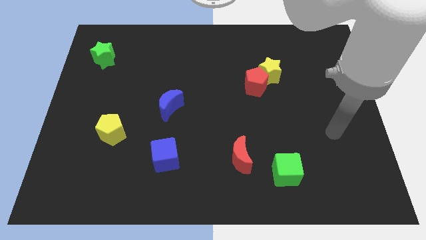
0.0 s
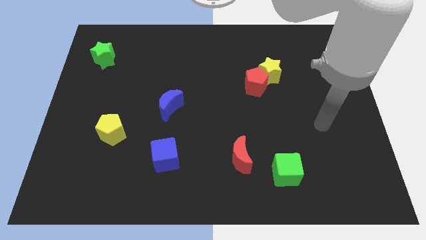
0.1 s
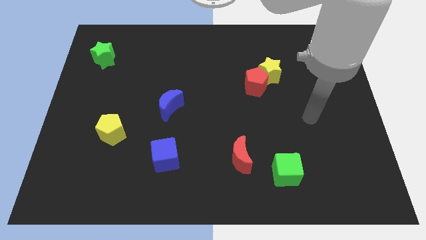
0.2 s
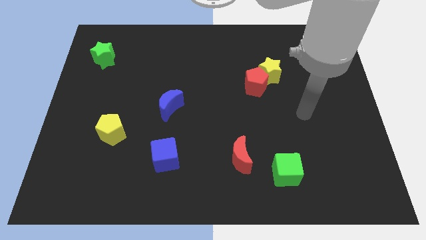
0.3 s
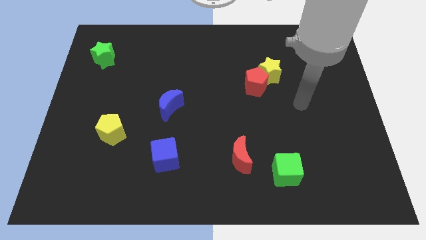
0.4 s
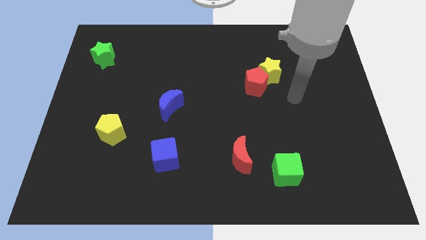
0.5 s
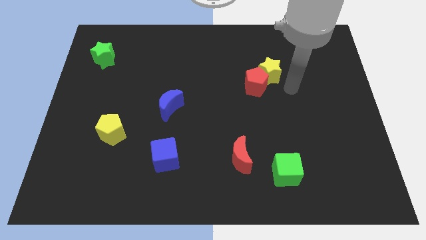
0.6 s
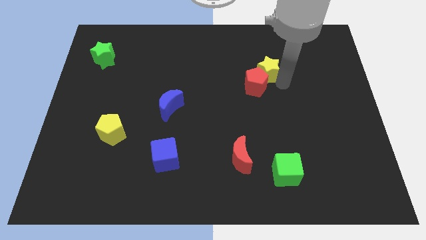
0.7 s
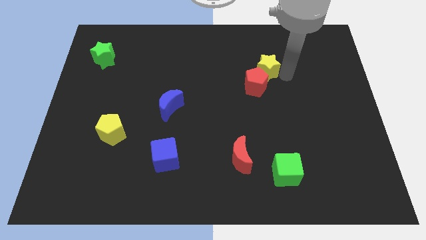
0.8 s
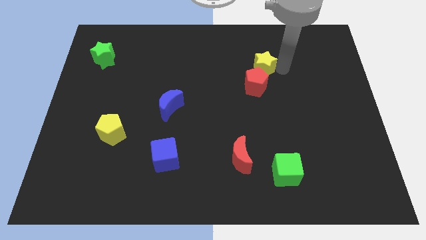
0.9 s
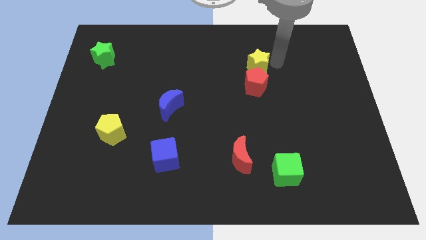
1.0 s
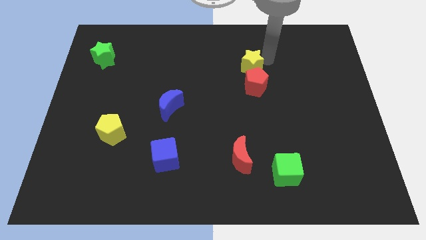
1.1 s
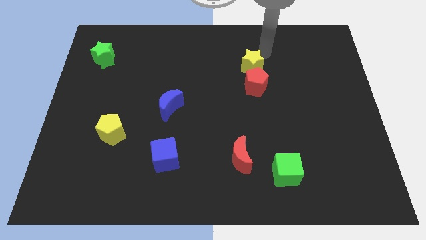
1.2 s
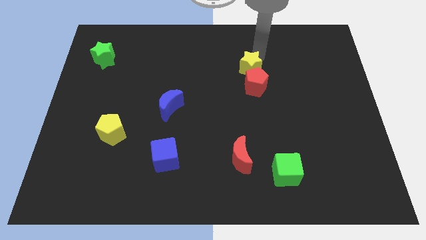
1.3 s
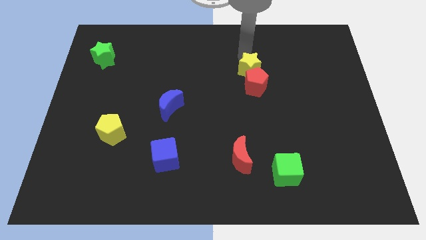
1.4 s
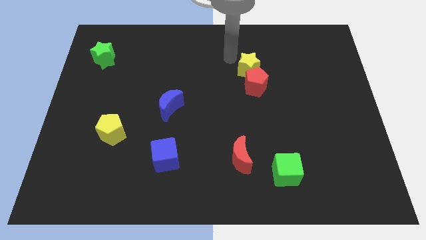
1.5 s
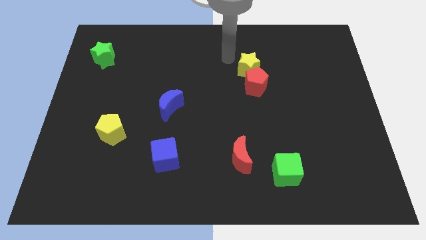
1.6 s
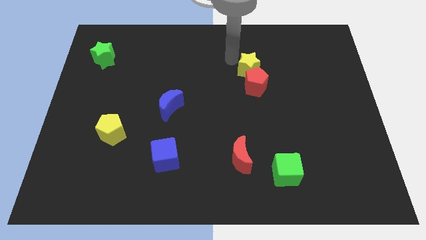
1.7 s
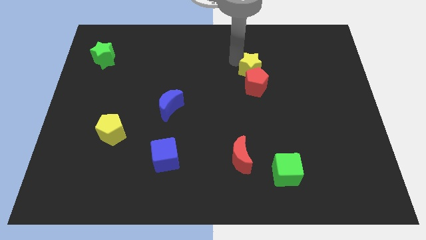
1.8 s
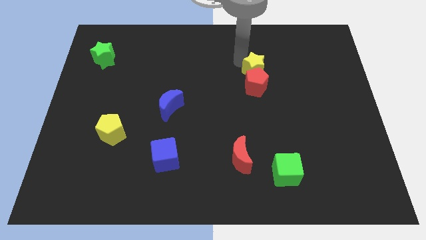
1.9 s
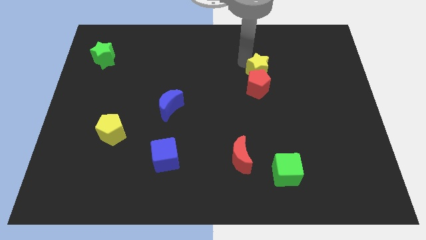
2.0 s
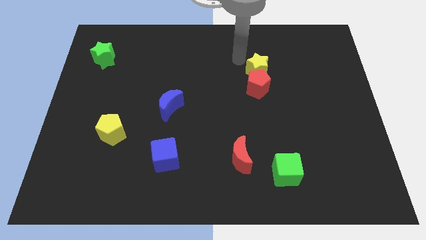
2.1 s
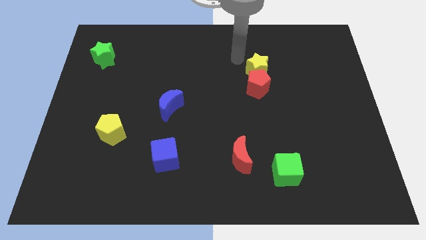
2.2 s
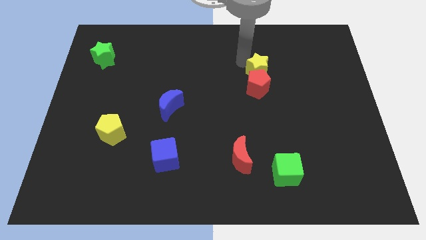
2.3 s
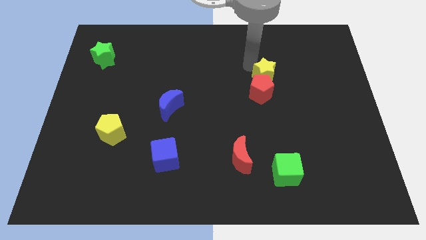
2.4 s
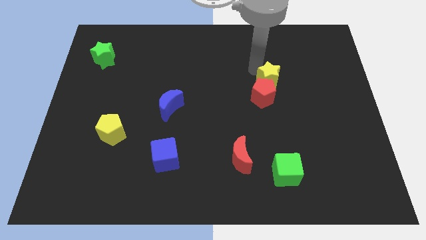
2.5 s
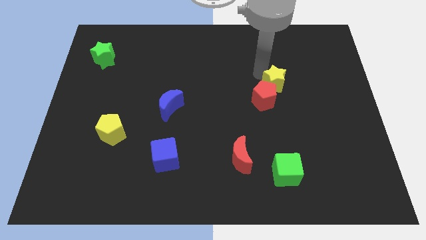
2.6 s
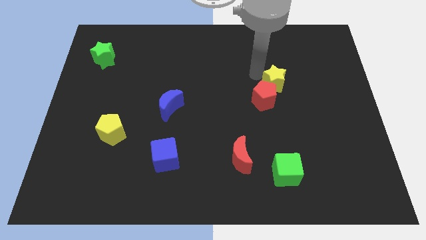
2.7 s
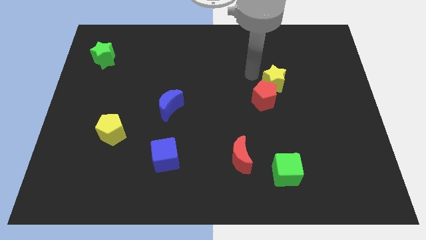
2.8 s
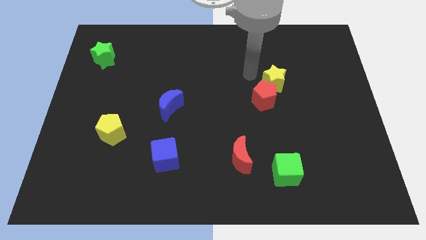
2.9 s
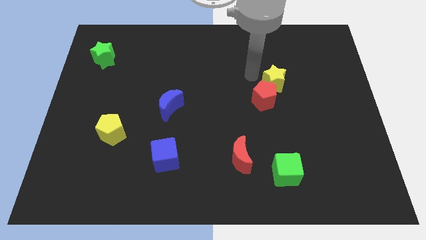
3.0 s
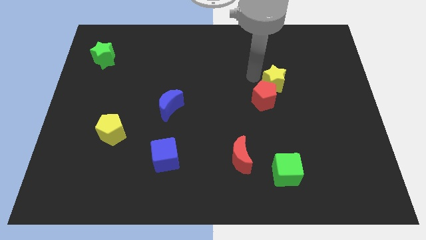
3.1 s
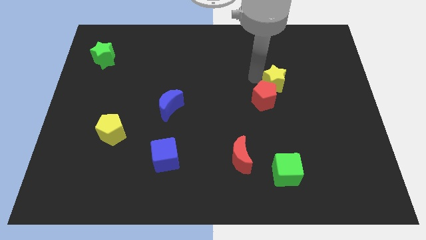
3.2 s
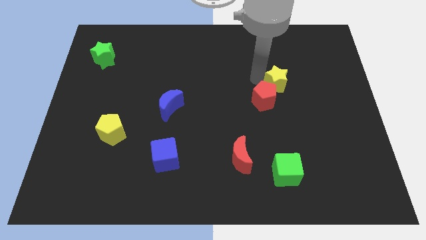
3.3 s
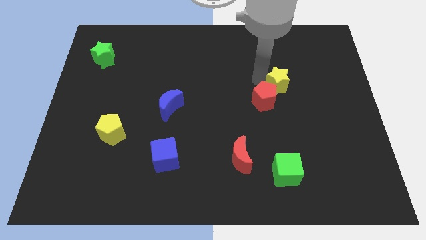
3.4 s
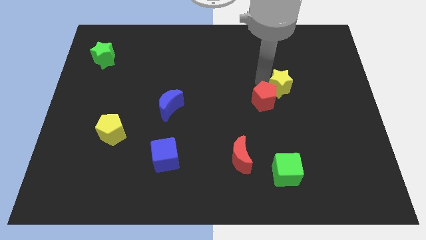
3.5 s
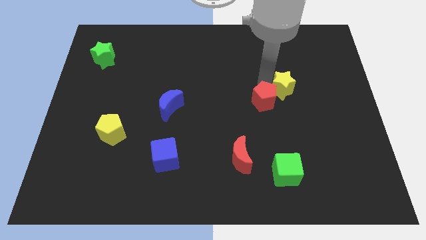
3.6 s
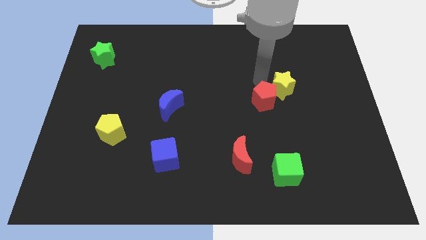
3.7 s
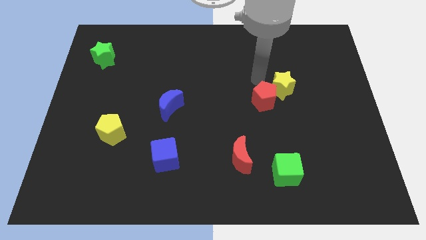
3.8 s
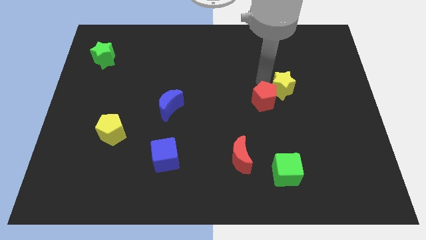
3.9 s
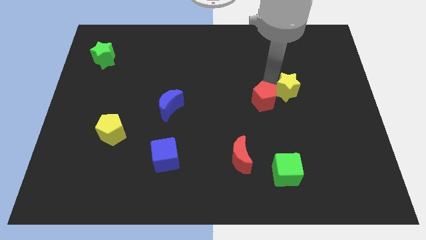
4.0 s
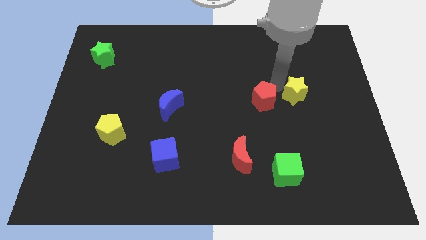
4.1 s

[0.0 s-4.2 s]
push the yellow star diagonally downwards and right a little bit

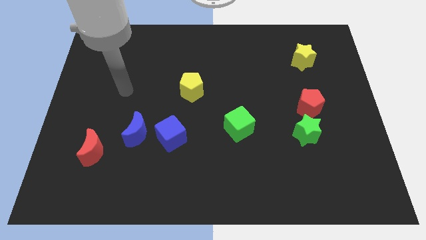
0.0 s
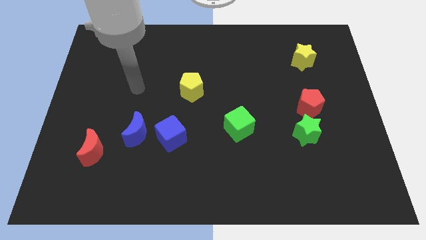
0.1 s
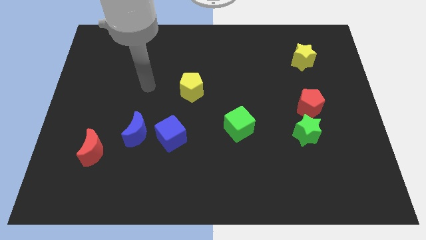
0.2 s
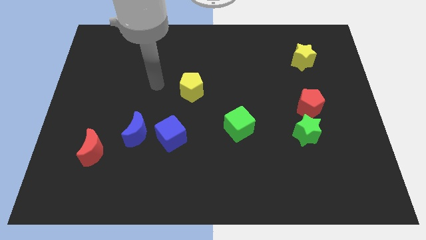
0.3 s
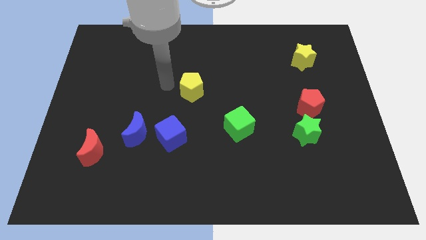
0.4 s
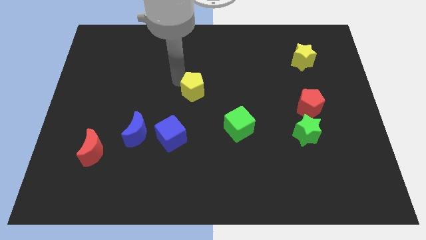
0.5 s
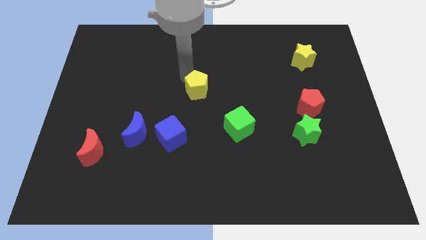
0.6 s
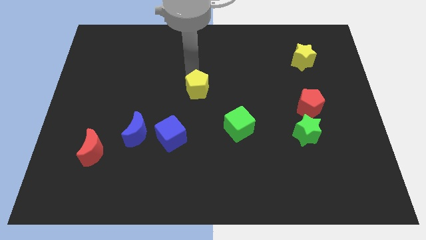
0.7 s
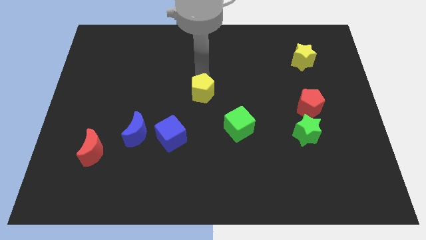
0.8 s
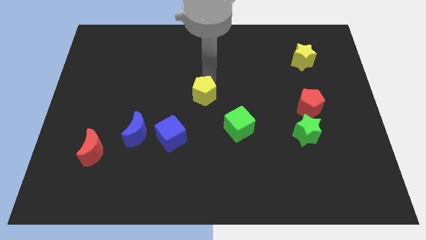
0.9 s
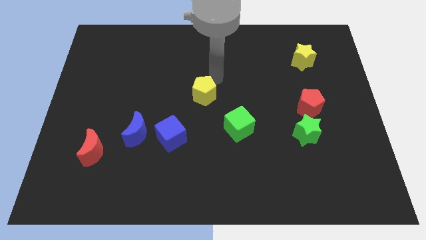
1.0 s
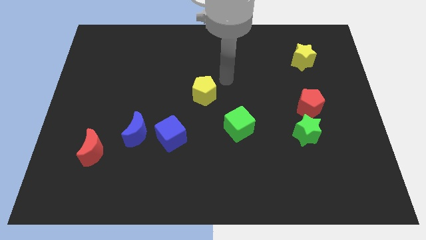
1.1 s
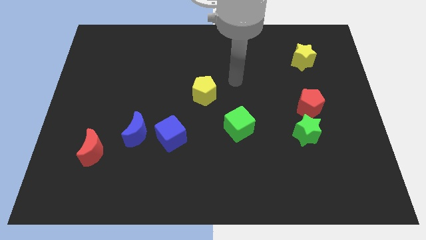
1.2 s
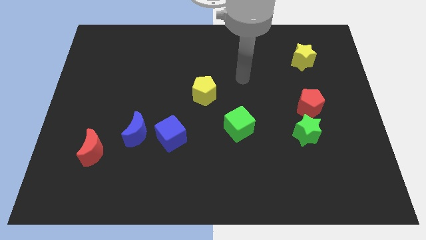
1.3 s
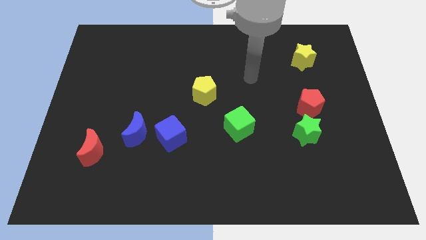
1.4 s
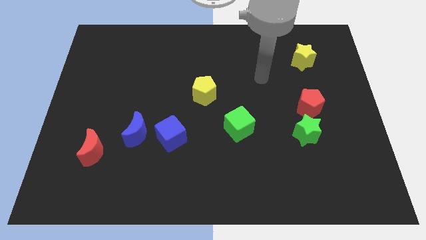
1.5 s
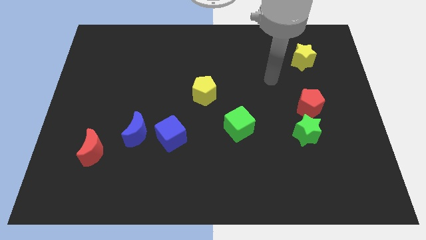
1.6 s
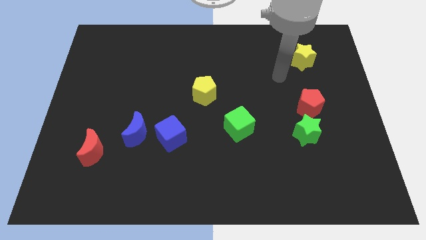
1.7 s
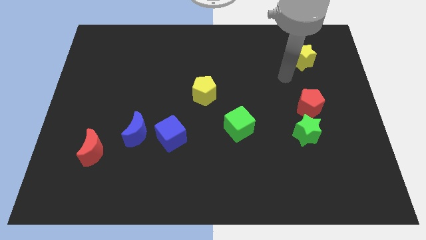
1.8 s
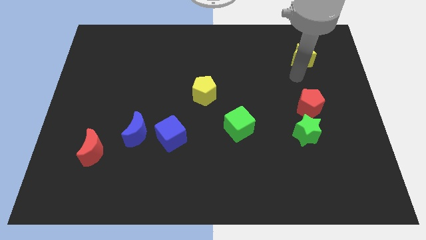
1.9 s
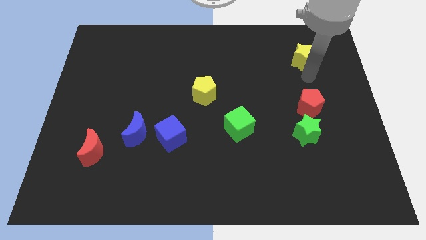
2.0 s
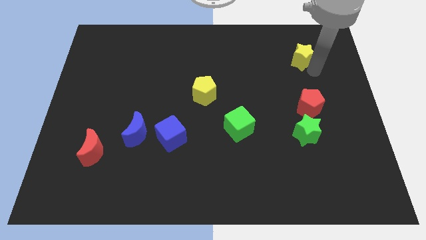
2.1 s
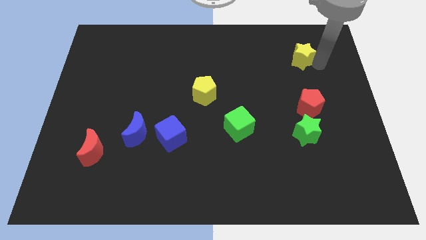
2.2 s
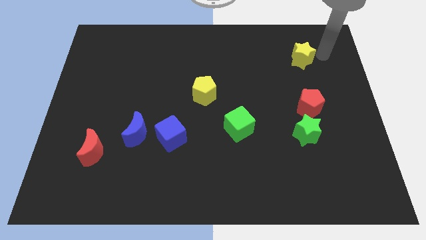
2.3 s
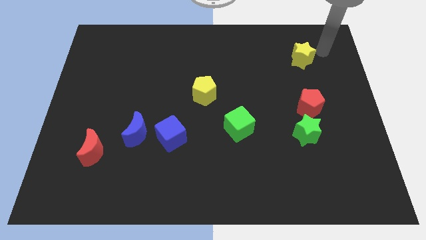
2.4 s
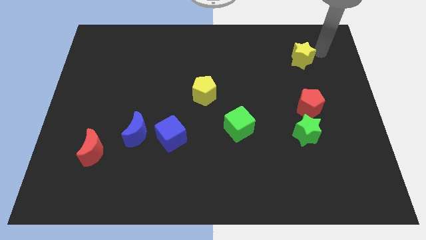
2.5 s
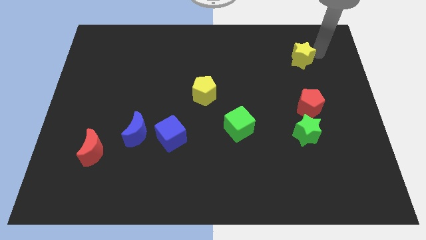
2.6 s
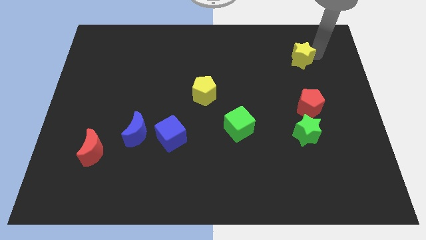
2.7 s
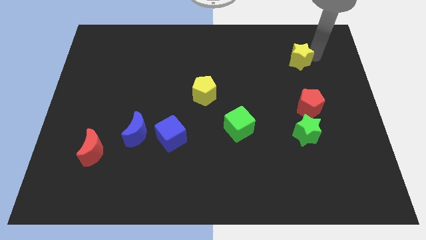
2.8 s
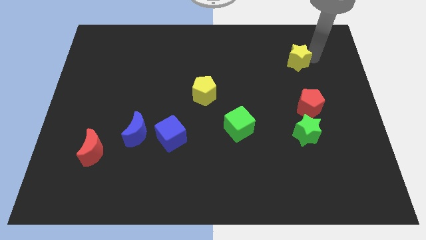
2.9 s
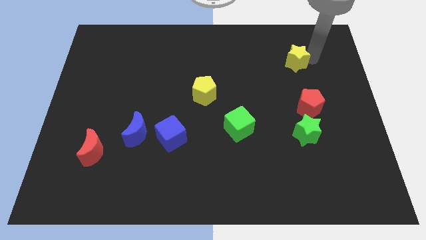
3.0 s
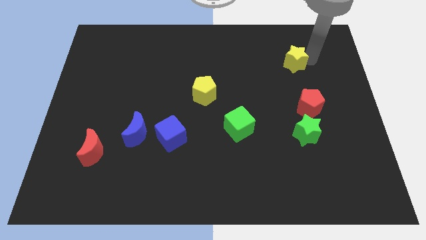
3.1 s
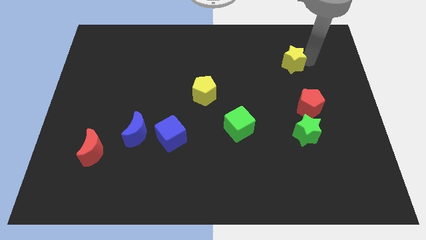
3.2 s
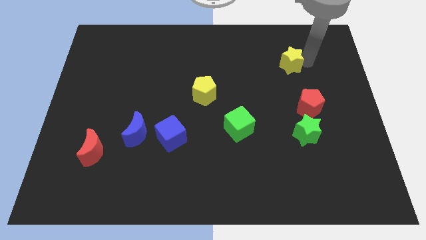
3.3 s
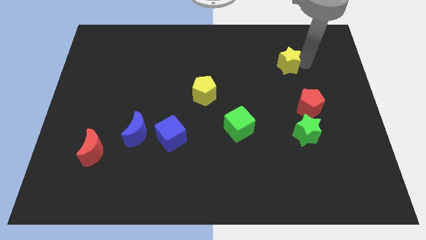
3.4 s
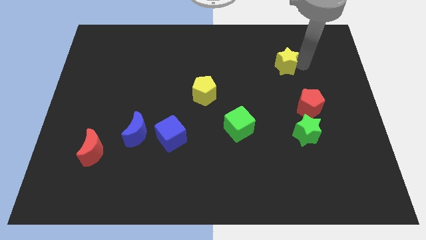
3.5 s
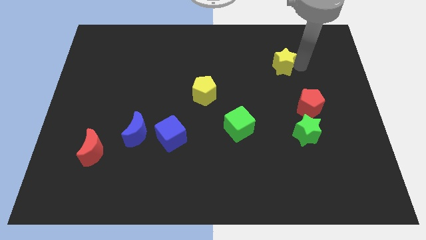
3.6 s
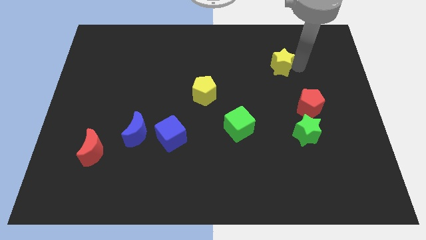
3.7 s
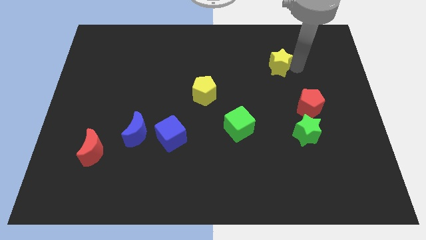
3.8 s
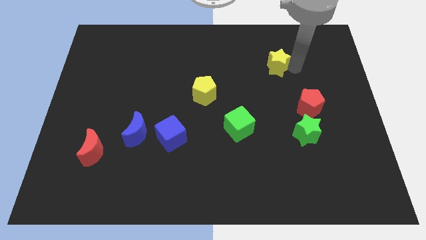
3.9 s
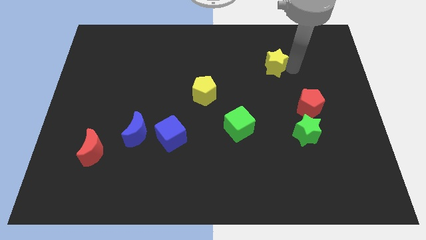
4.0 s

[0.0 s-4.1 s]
slightly move the yellow star left
